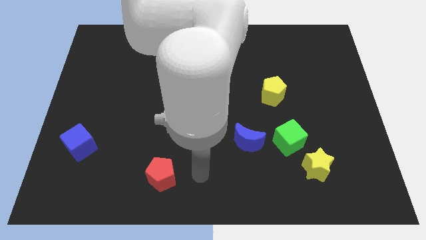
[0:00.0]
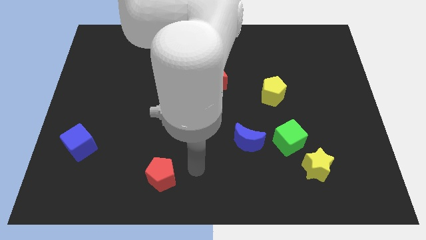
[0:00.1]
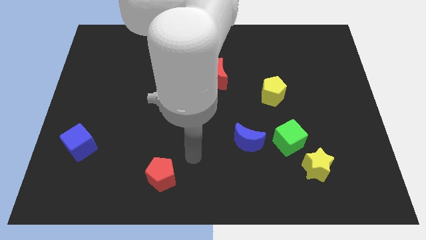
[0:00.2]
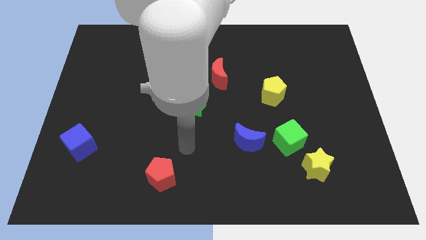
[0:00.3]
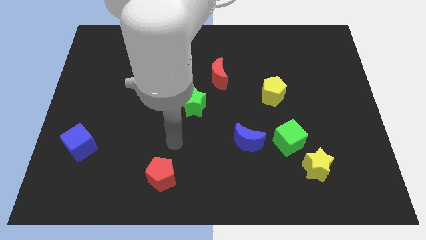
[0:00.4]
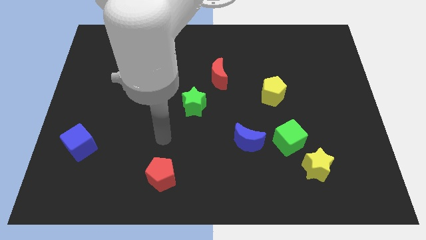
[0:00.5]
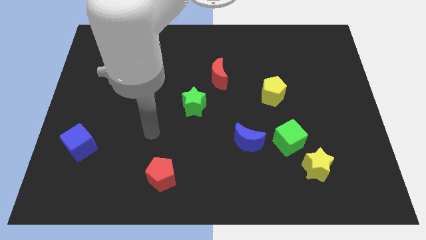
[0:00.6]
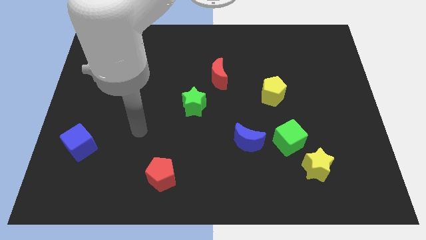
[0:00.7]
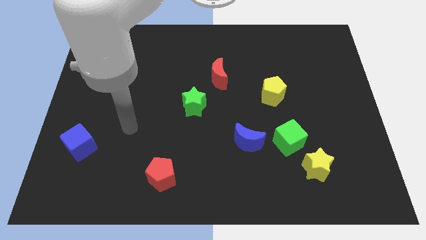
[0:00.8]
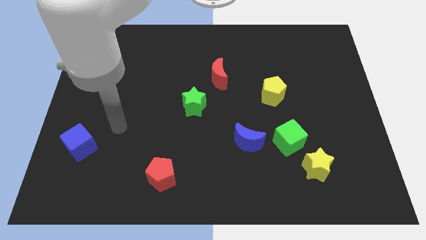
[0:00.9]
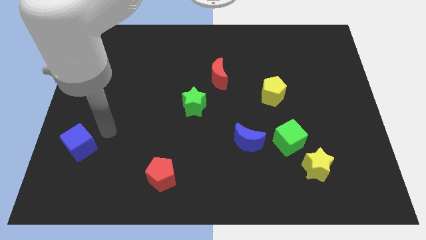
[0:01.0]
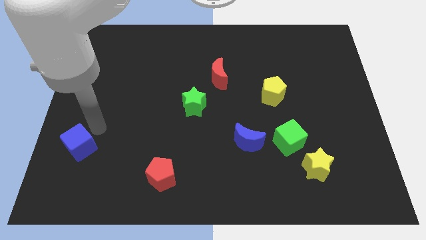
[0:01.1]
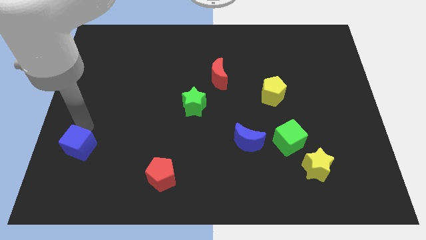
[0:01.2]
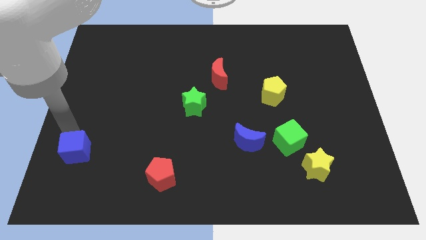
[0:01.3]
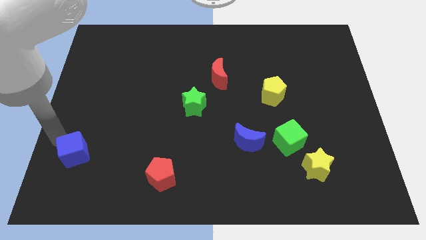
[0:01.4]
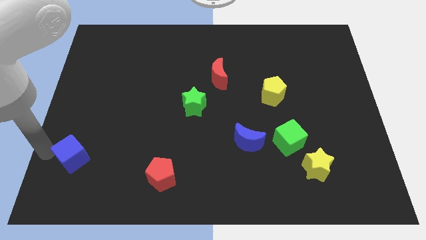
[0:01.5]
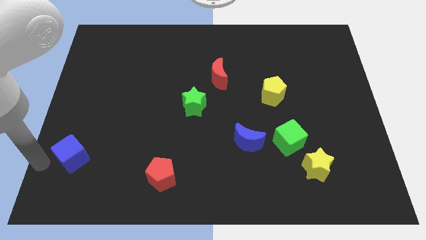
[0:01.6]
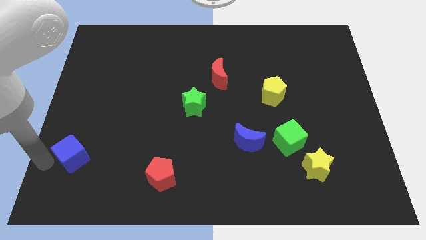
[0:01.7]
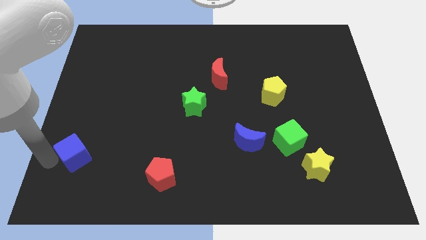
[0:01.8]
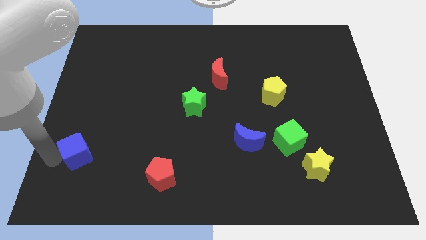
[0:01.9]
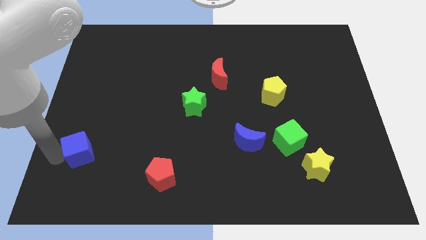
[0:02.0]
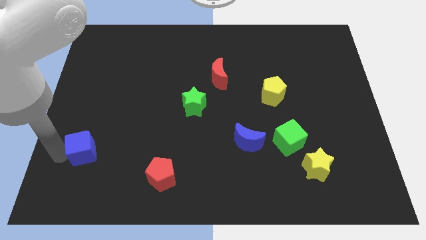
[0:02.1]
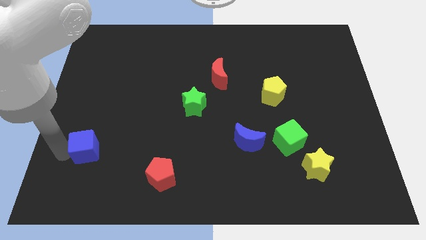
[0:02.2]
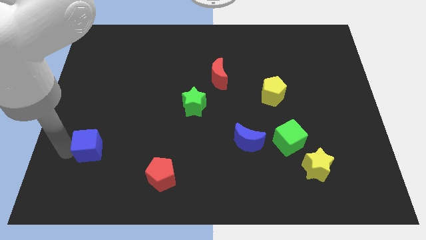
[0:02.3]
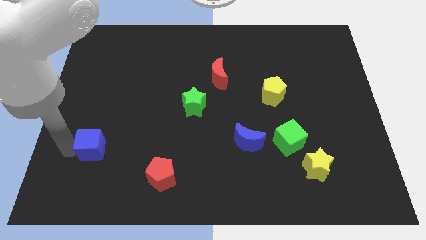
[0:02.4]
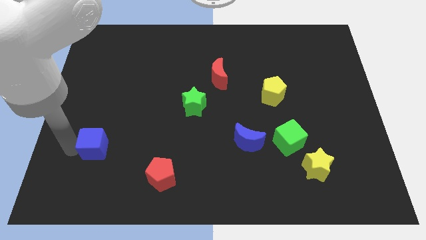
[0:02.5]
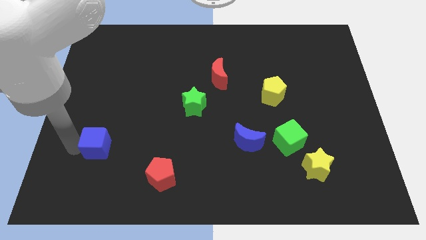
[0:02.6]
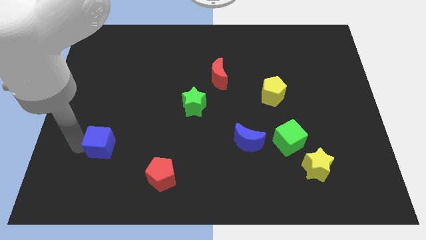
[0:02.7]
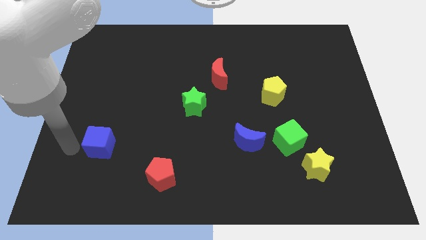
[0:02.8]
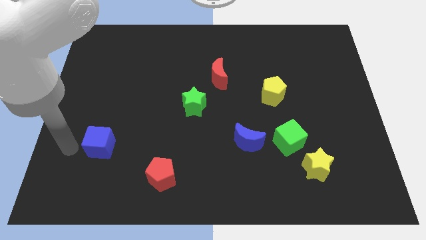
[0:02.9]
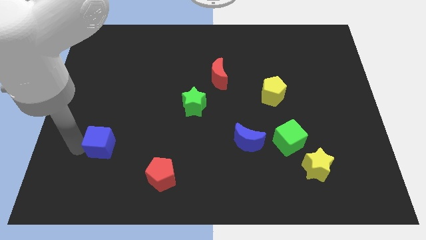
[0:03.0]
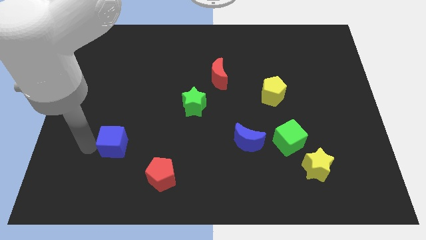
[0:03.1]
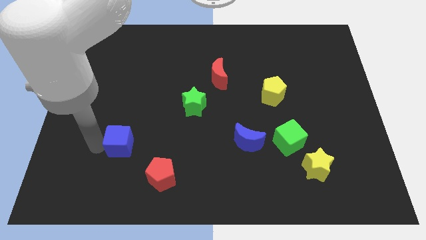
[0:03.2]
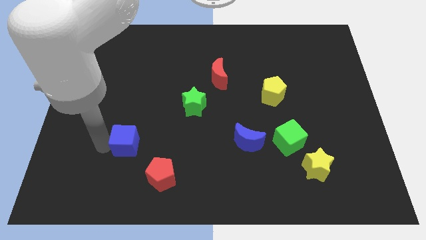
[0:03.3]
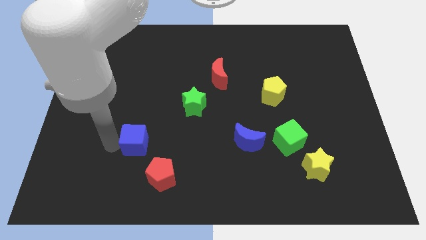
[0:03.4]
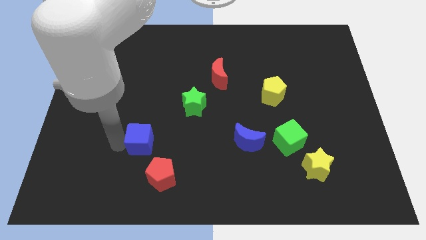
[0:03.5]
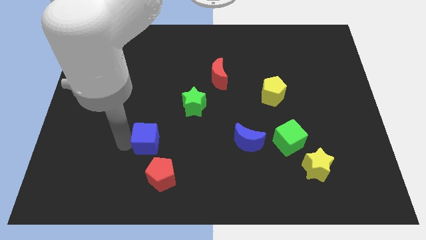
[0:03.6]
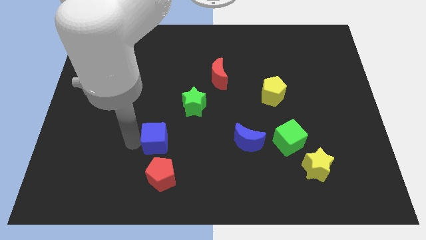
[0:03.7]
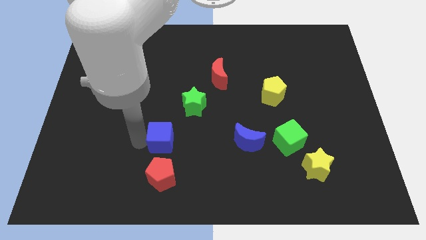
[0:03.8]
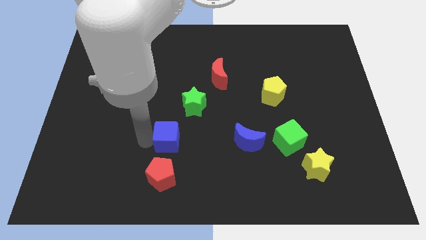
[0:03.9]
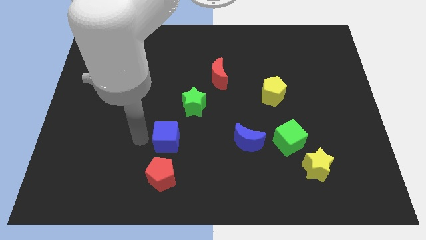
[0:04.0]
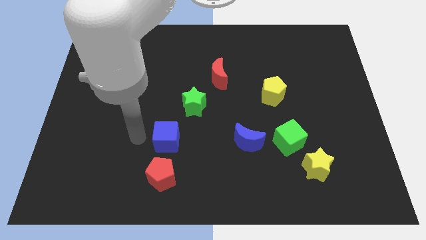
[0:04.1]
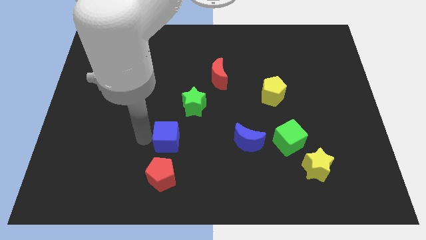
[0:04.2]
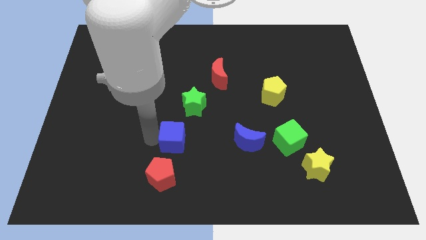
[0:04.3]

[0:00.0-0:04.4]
move the blue cube to the right

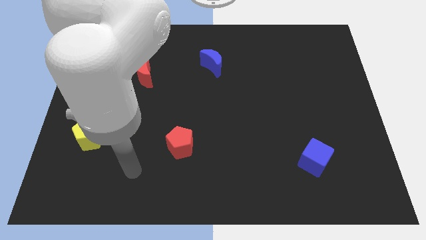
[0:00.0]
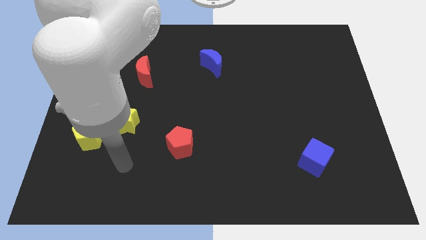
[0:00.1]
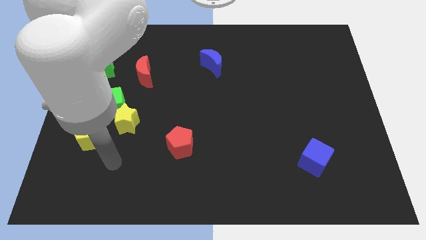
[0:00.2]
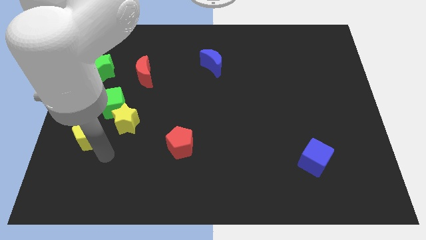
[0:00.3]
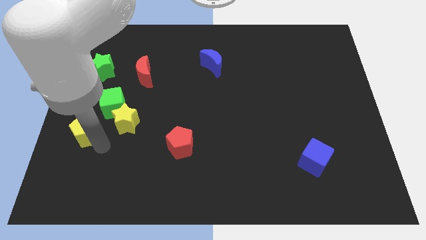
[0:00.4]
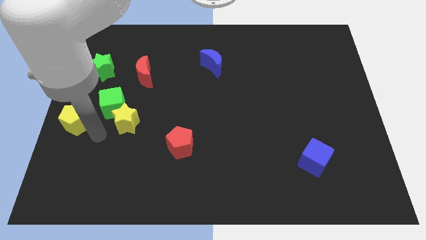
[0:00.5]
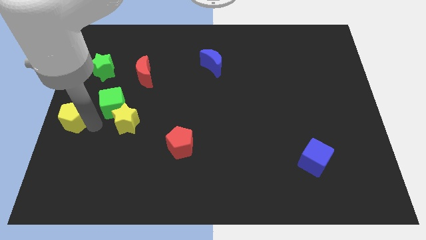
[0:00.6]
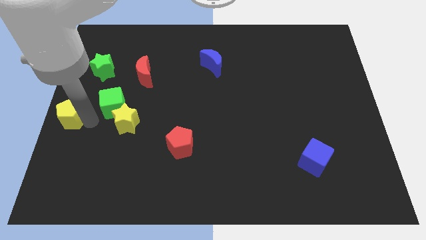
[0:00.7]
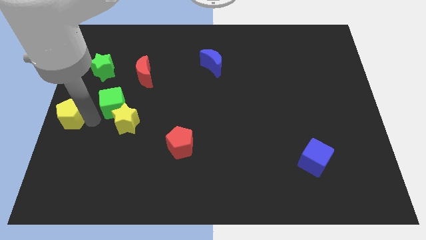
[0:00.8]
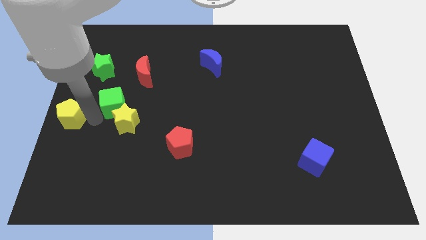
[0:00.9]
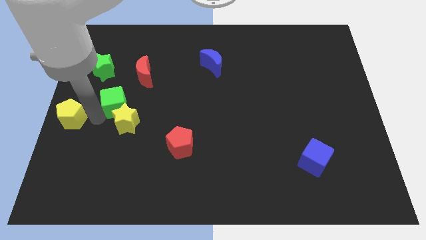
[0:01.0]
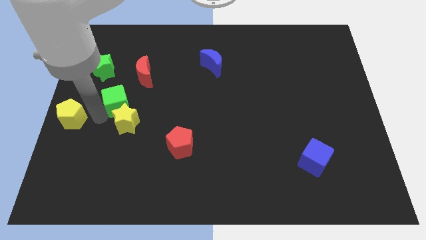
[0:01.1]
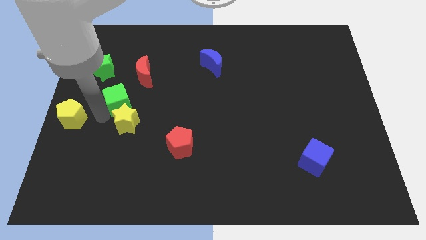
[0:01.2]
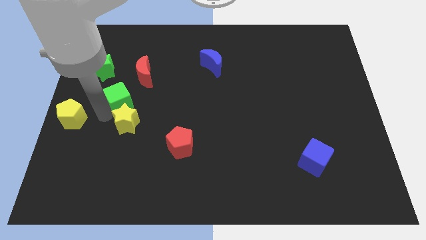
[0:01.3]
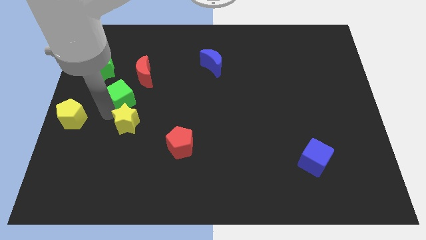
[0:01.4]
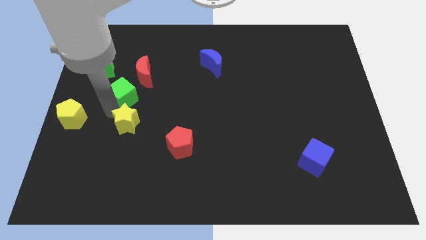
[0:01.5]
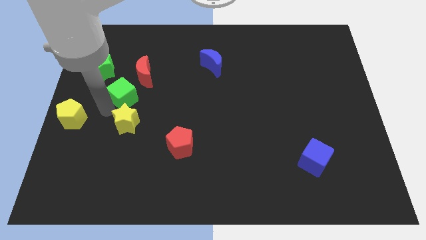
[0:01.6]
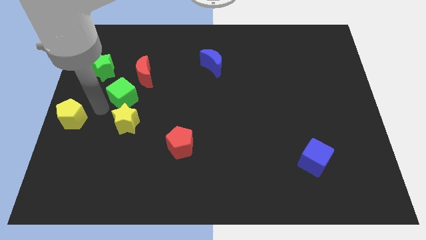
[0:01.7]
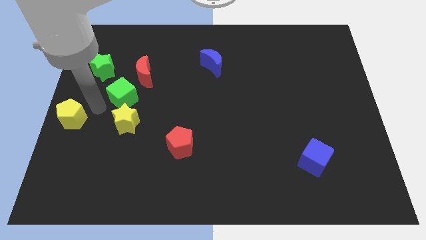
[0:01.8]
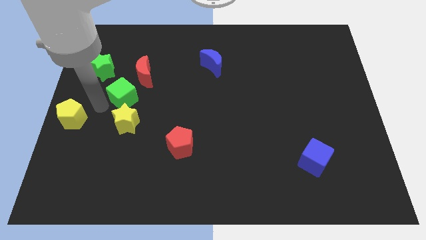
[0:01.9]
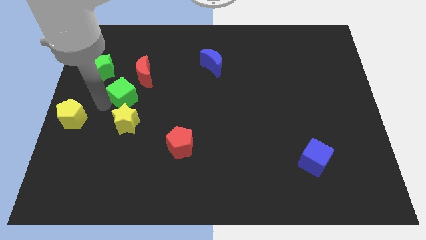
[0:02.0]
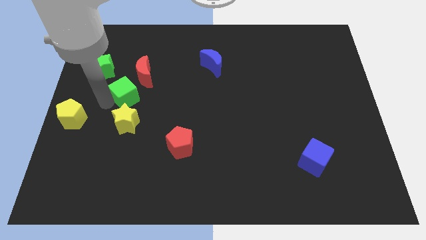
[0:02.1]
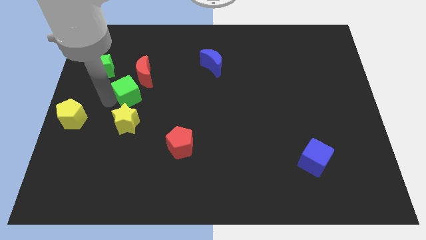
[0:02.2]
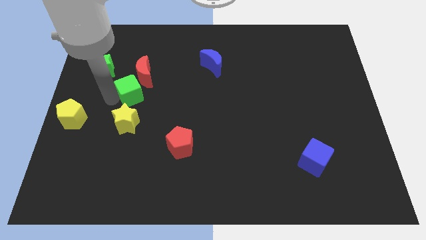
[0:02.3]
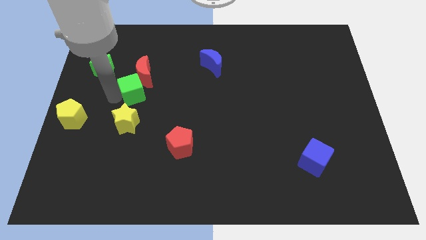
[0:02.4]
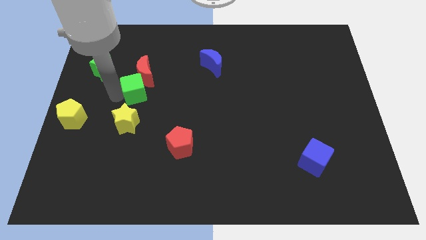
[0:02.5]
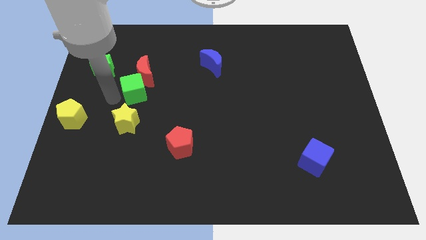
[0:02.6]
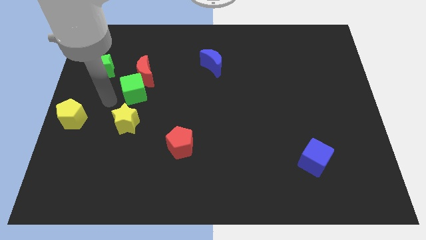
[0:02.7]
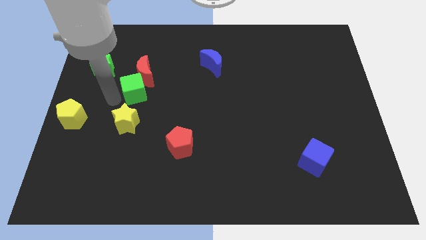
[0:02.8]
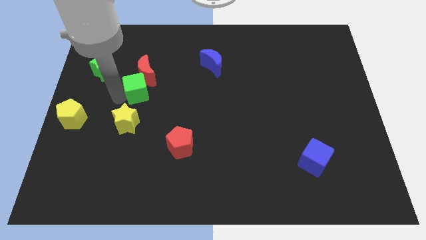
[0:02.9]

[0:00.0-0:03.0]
move the green cube upwards and to the right diagonally slightly
